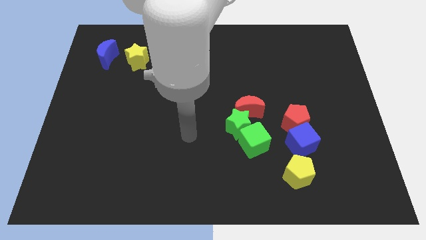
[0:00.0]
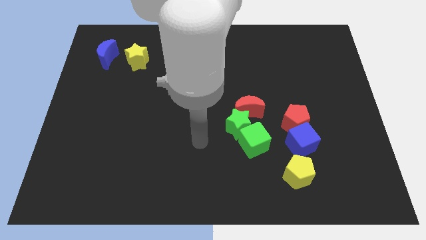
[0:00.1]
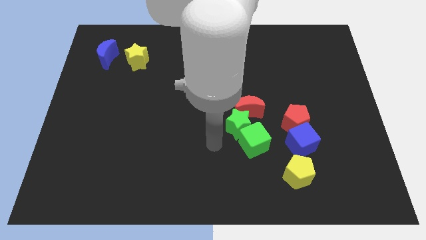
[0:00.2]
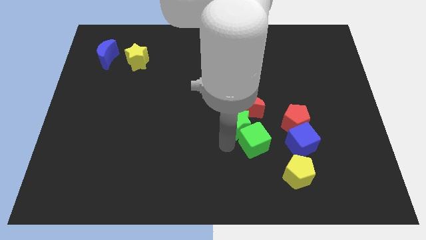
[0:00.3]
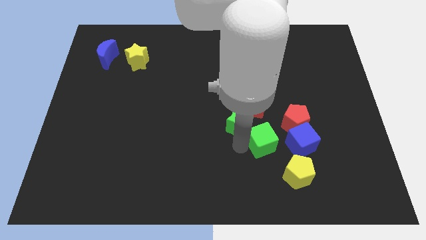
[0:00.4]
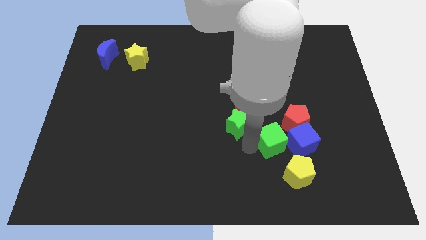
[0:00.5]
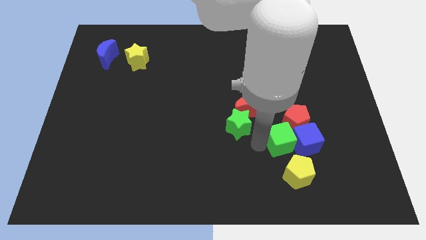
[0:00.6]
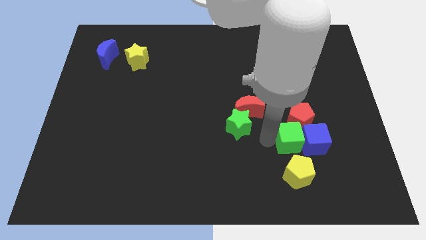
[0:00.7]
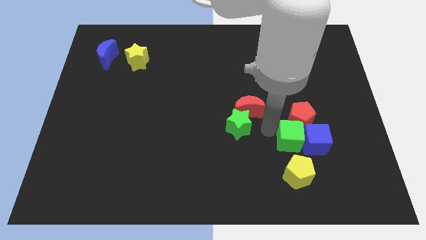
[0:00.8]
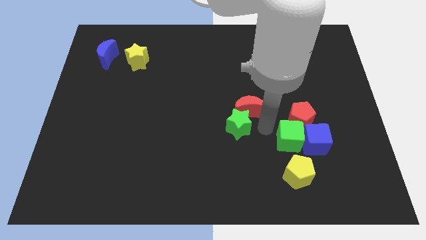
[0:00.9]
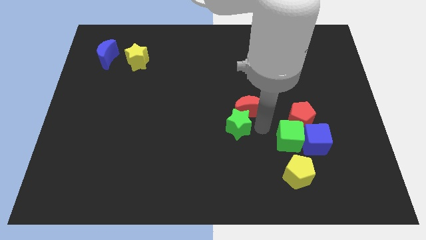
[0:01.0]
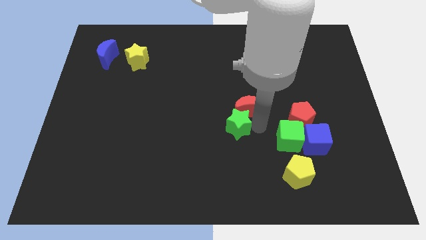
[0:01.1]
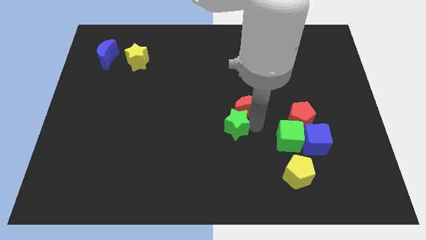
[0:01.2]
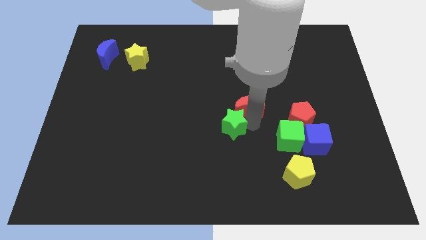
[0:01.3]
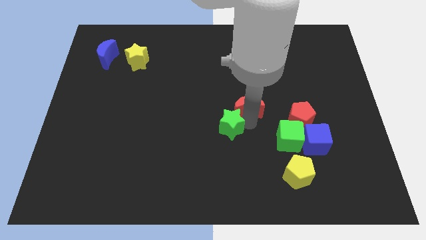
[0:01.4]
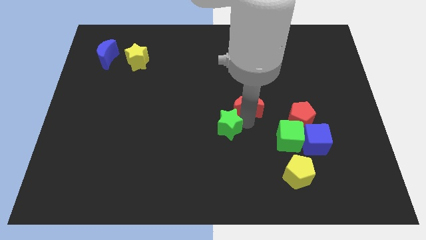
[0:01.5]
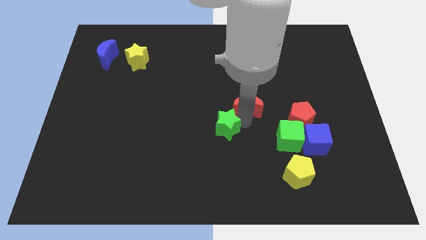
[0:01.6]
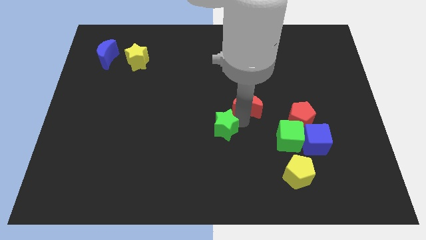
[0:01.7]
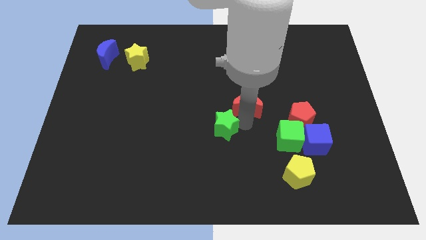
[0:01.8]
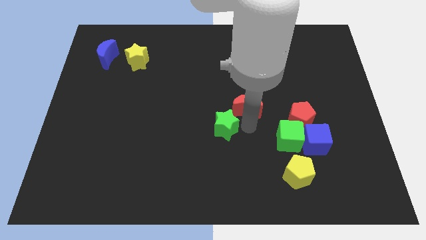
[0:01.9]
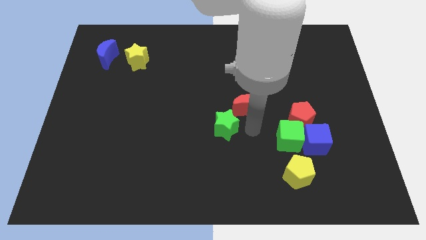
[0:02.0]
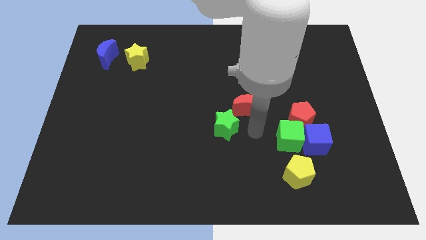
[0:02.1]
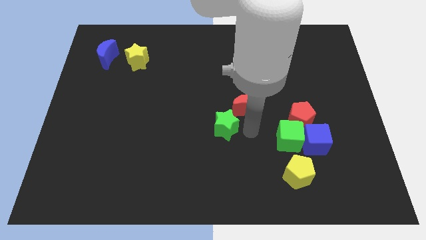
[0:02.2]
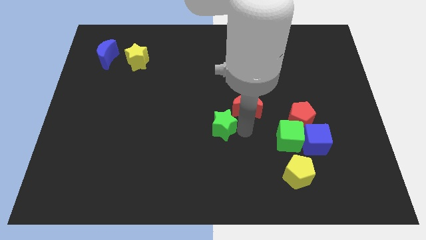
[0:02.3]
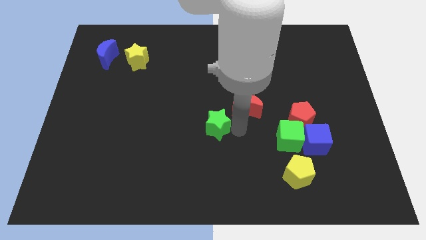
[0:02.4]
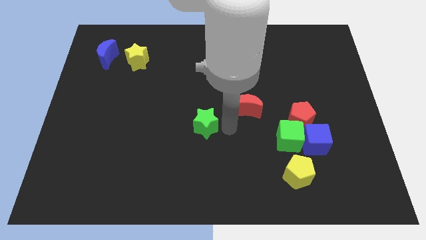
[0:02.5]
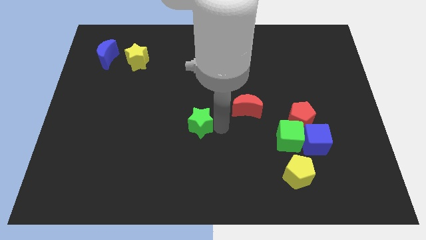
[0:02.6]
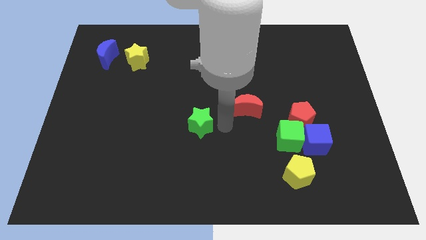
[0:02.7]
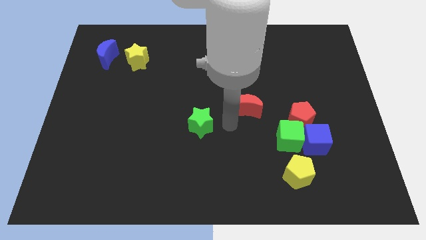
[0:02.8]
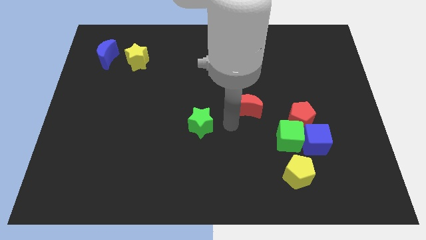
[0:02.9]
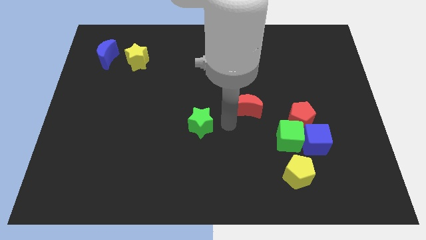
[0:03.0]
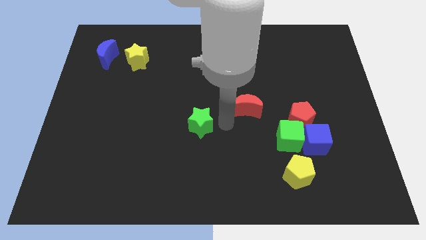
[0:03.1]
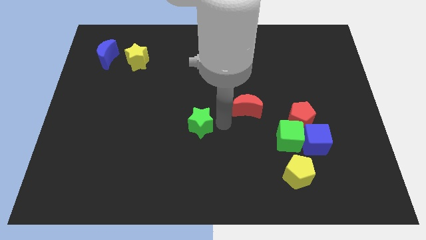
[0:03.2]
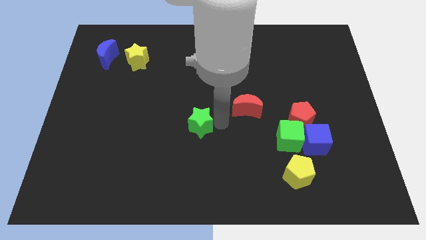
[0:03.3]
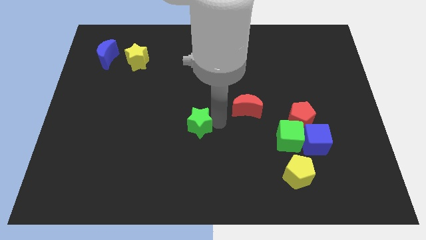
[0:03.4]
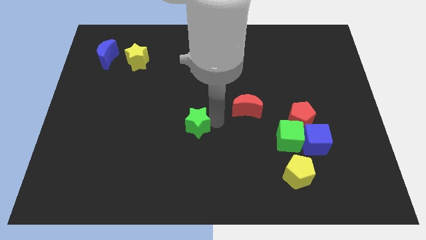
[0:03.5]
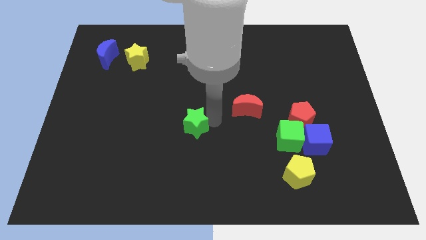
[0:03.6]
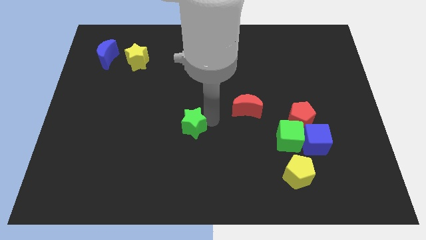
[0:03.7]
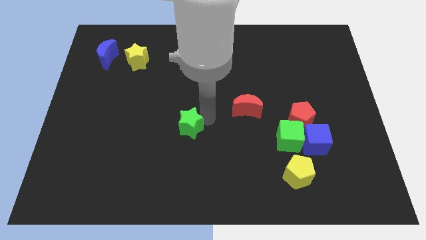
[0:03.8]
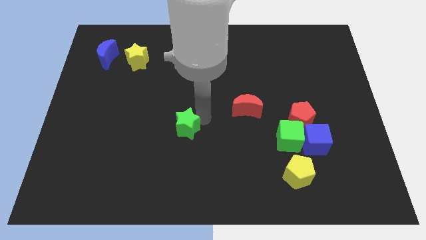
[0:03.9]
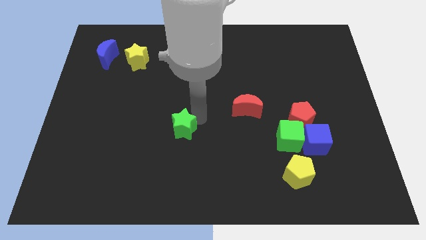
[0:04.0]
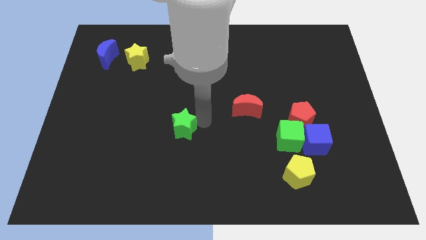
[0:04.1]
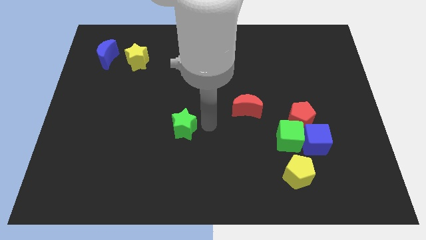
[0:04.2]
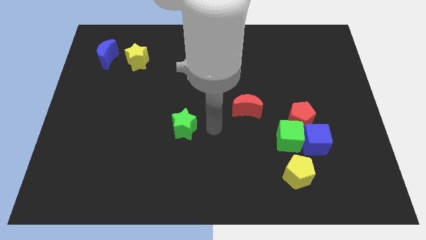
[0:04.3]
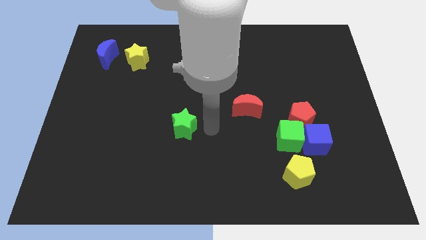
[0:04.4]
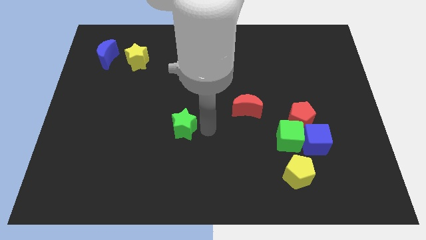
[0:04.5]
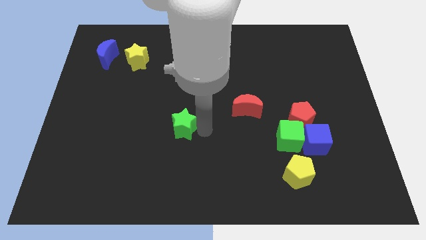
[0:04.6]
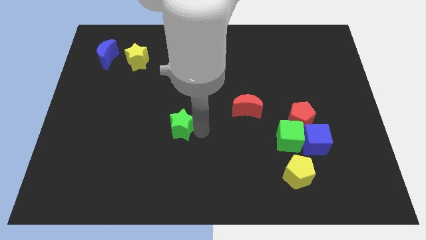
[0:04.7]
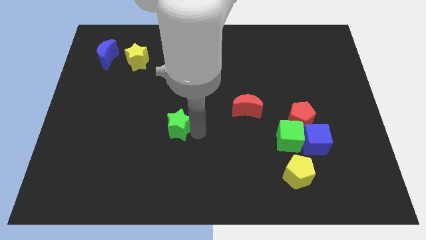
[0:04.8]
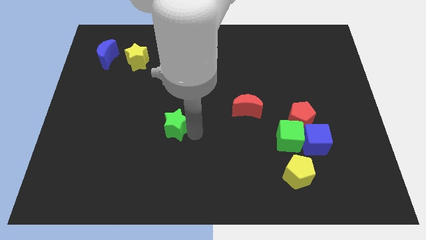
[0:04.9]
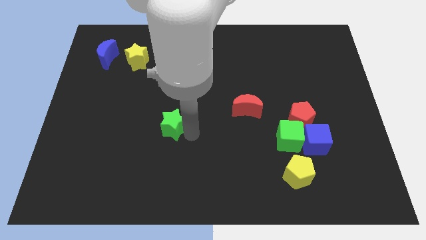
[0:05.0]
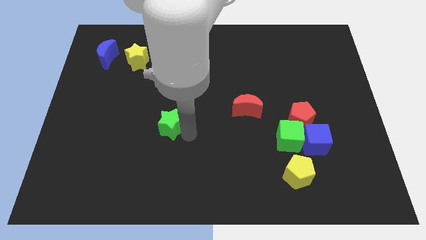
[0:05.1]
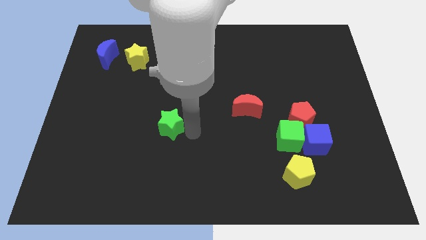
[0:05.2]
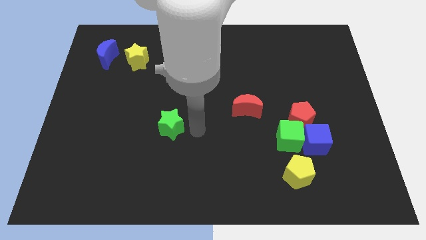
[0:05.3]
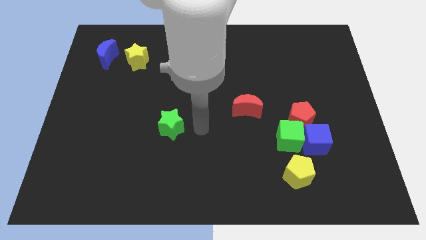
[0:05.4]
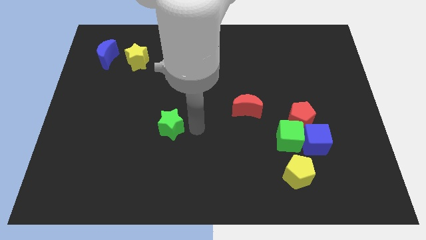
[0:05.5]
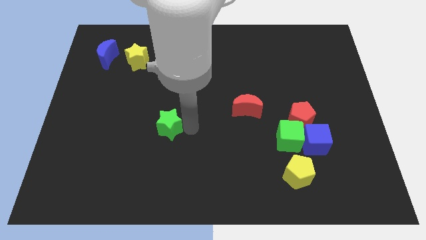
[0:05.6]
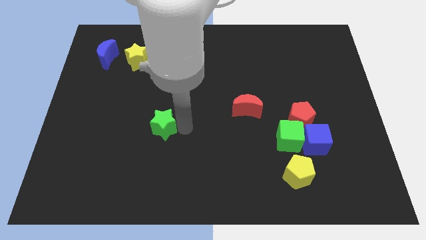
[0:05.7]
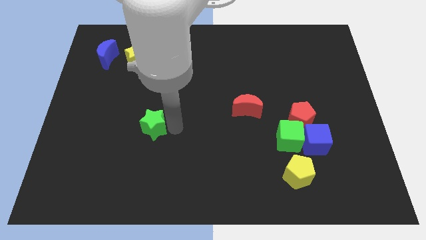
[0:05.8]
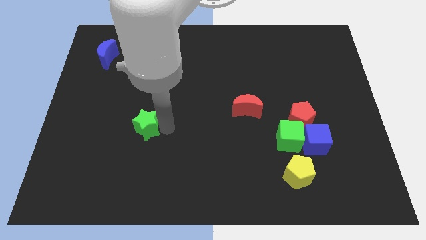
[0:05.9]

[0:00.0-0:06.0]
move the green star left

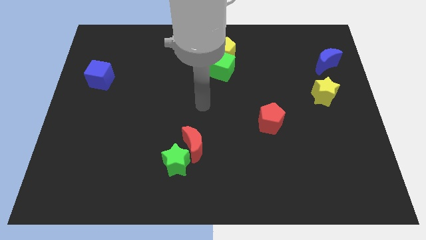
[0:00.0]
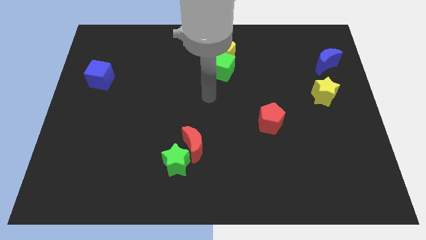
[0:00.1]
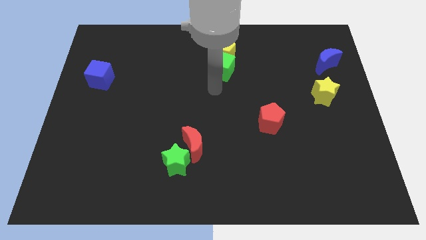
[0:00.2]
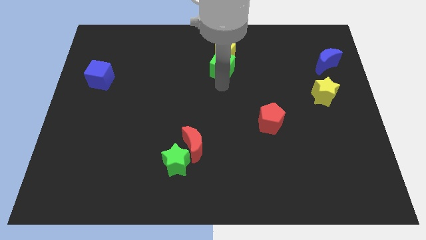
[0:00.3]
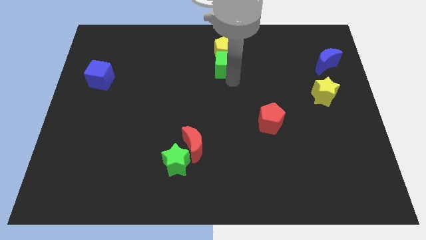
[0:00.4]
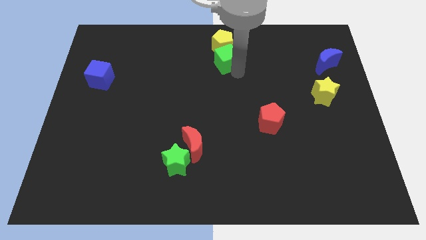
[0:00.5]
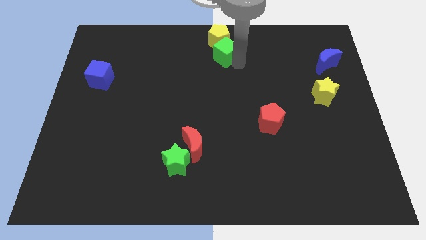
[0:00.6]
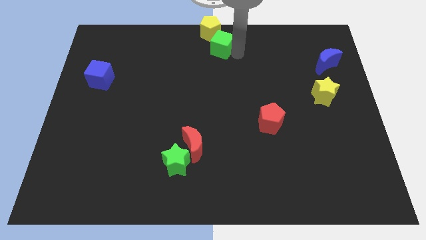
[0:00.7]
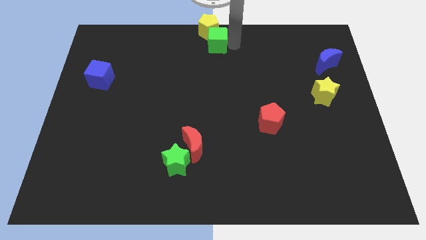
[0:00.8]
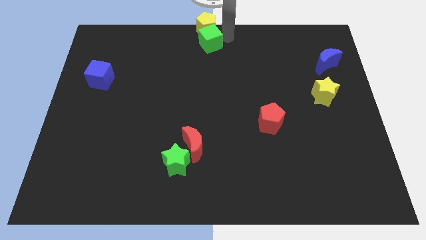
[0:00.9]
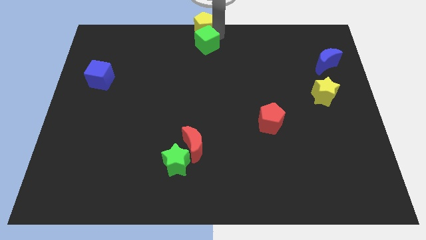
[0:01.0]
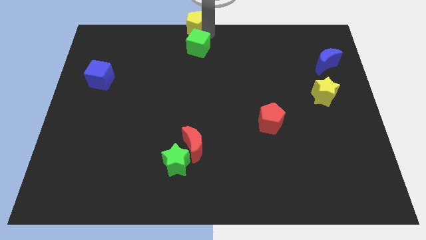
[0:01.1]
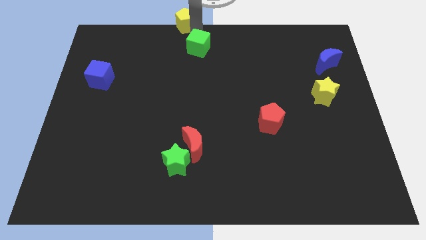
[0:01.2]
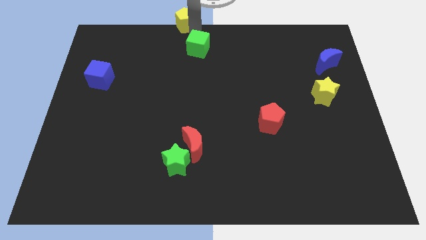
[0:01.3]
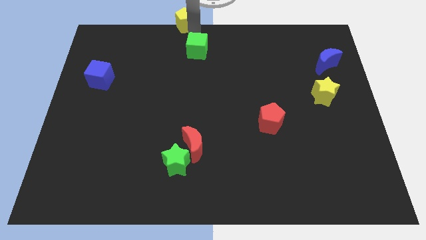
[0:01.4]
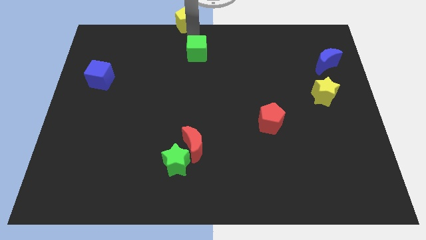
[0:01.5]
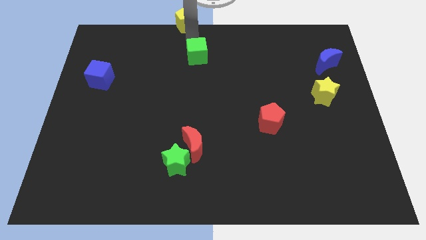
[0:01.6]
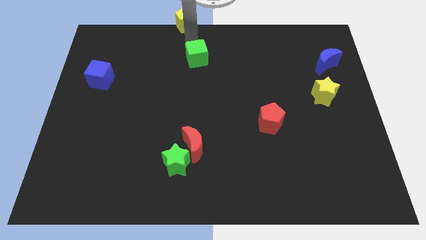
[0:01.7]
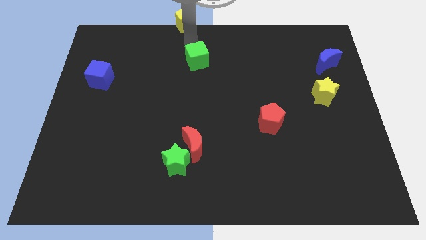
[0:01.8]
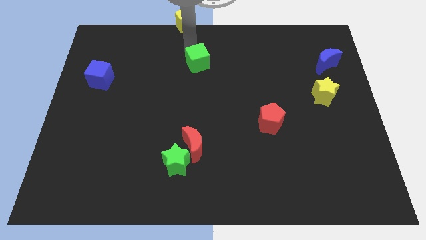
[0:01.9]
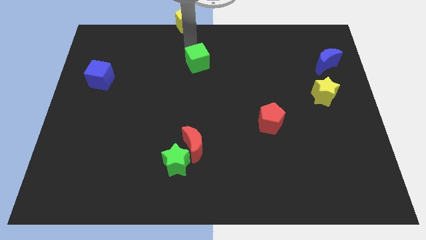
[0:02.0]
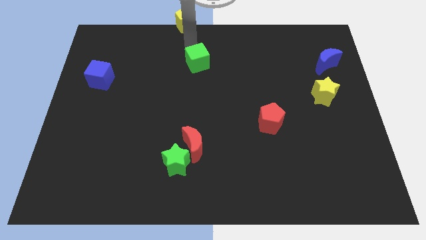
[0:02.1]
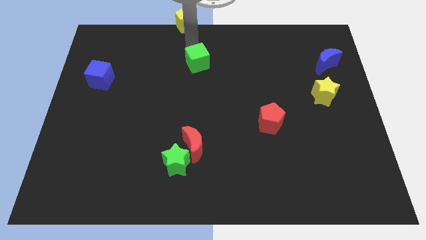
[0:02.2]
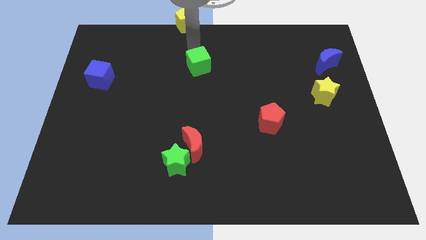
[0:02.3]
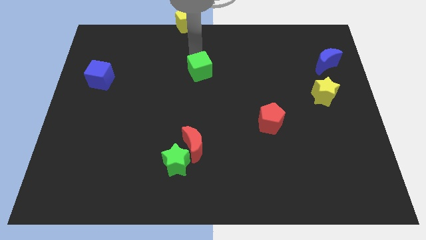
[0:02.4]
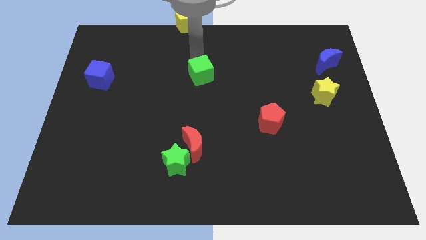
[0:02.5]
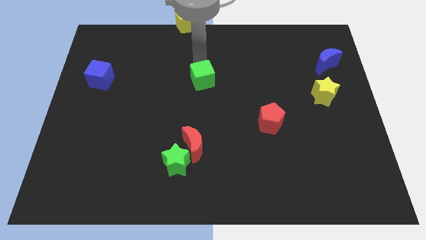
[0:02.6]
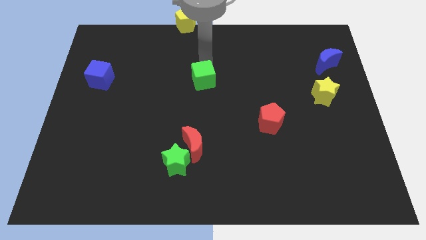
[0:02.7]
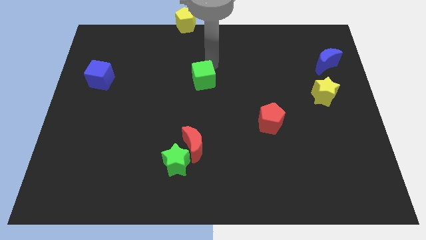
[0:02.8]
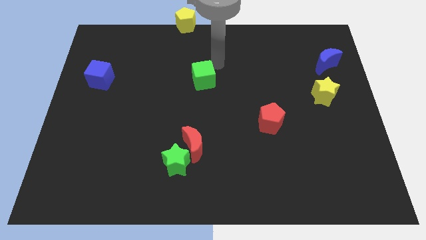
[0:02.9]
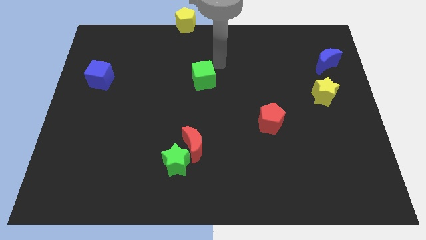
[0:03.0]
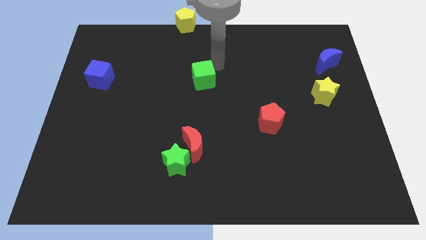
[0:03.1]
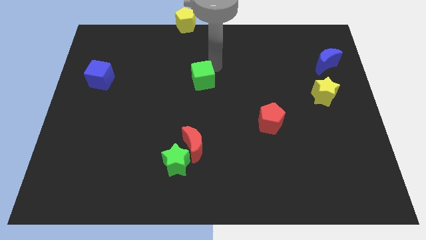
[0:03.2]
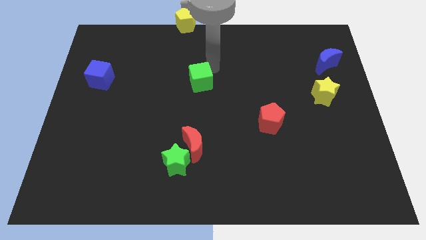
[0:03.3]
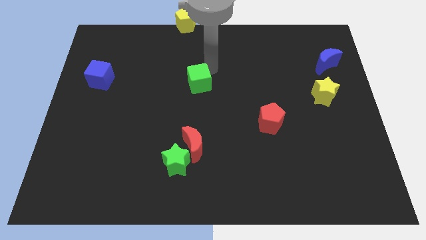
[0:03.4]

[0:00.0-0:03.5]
slightly move the green cube down and then to the left
